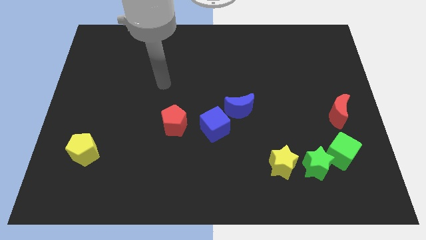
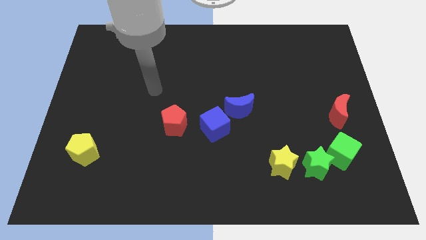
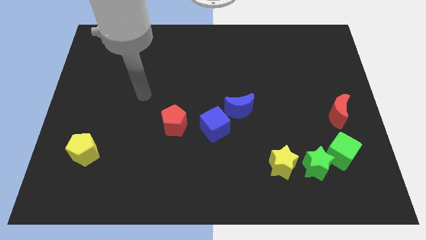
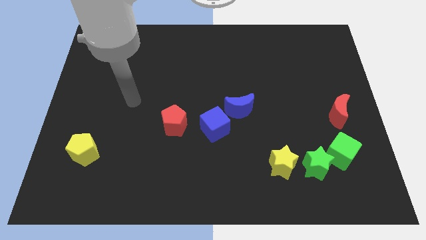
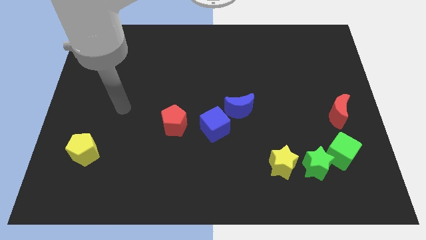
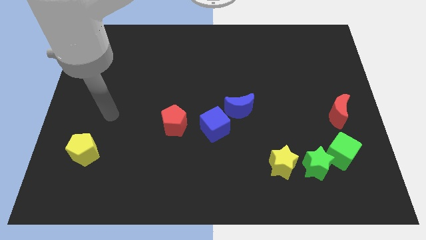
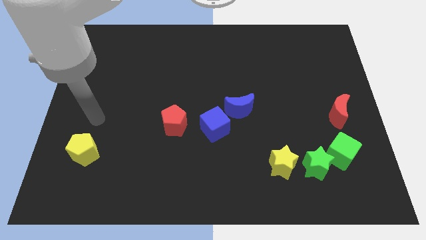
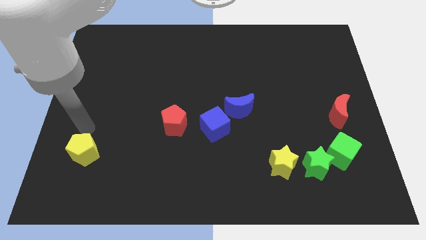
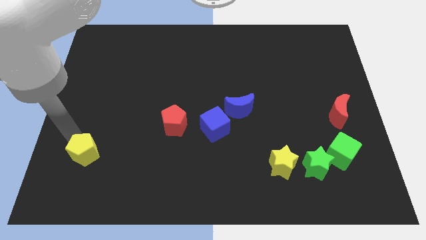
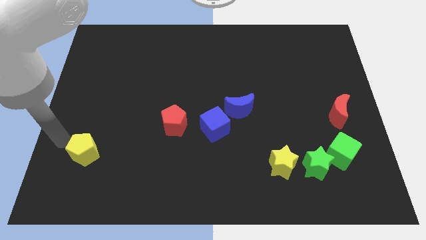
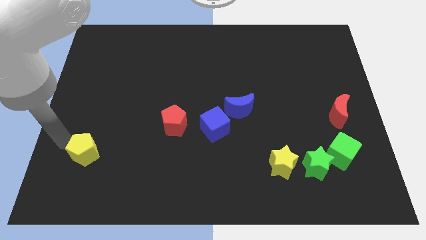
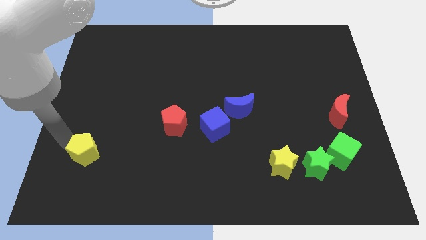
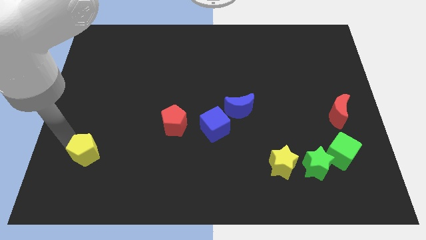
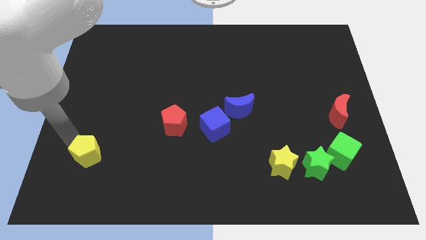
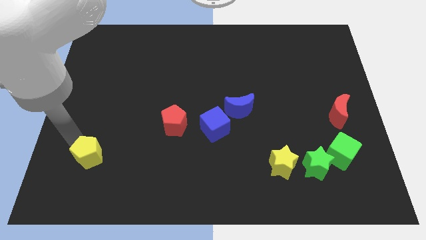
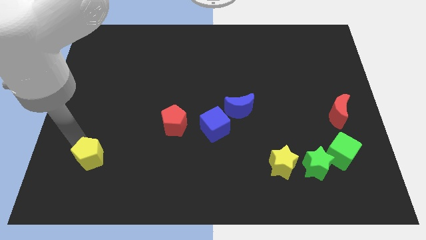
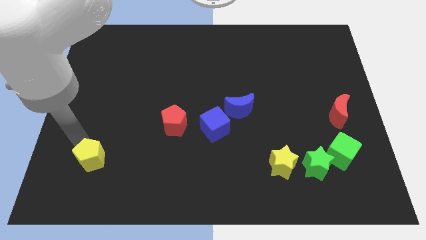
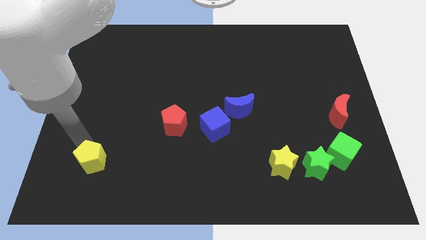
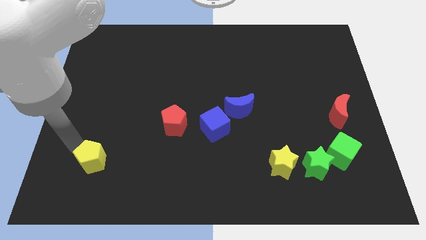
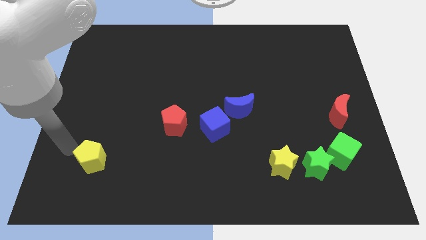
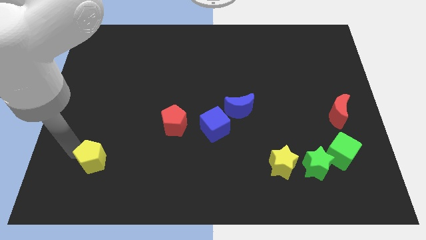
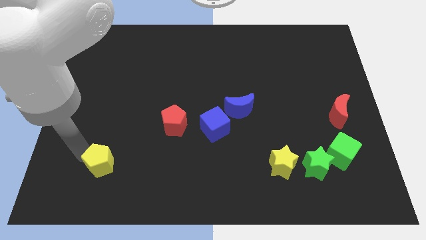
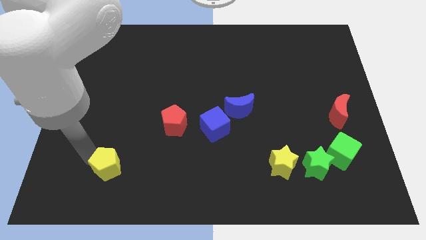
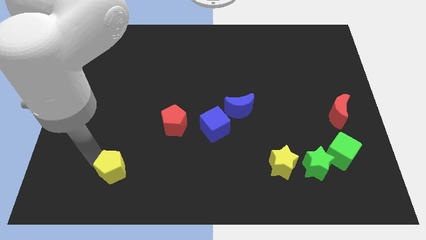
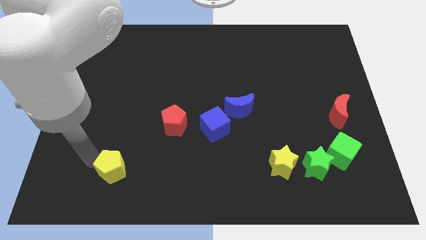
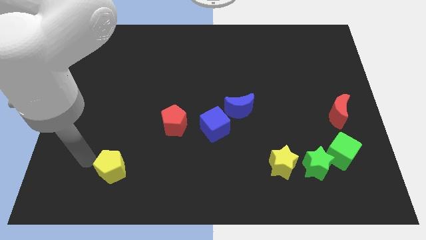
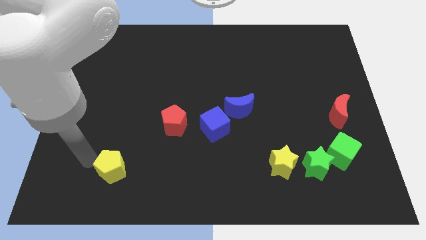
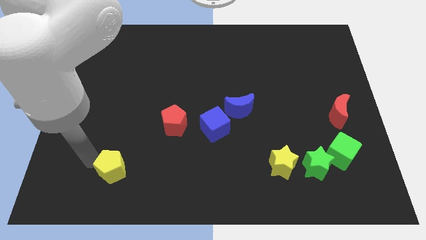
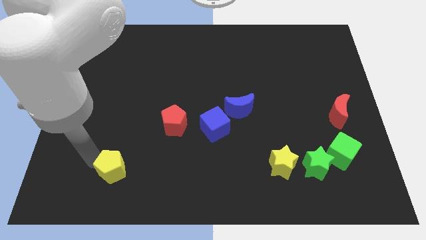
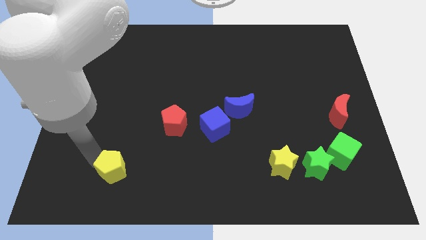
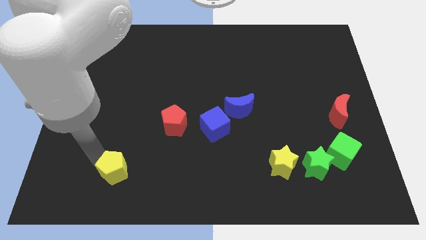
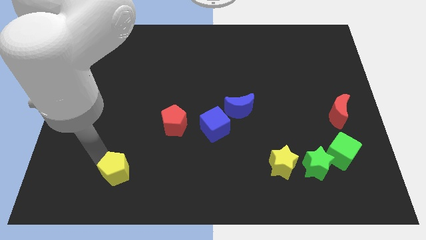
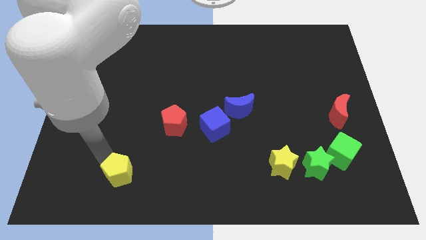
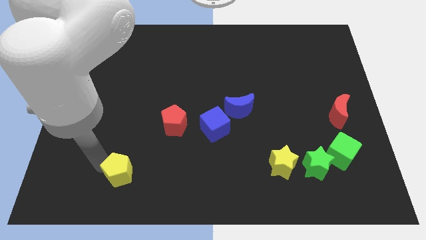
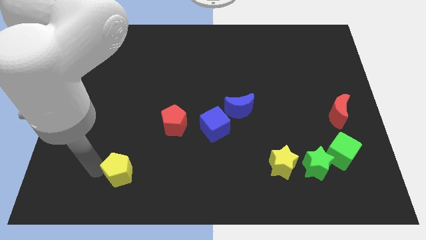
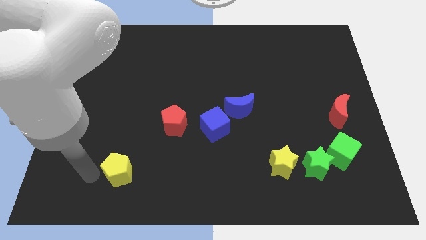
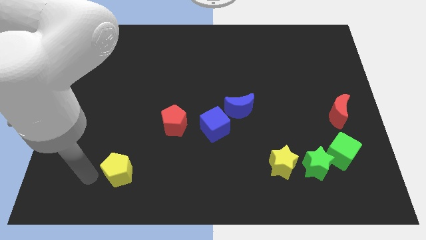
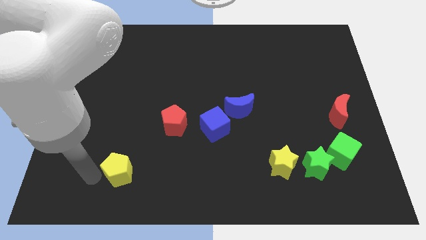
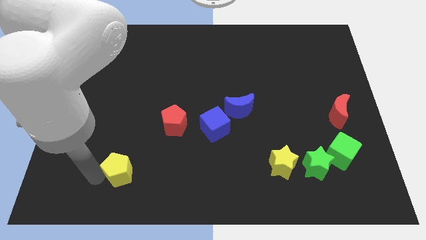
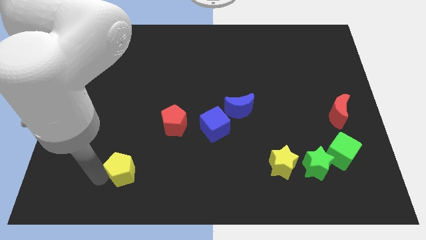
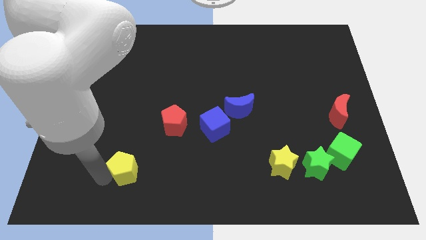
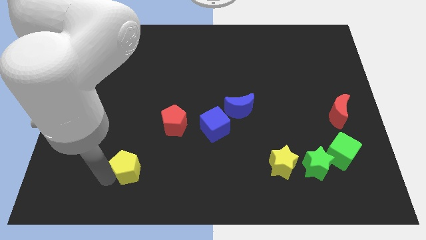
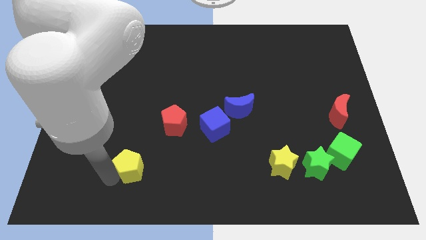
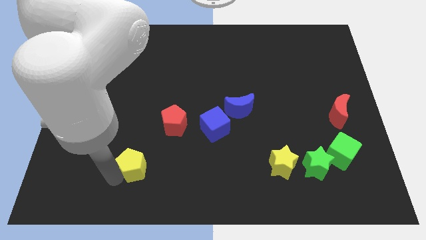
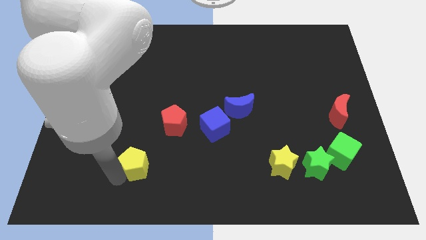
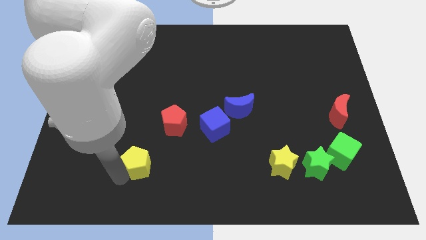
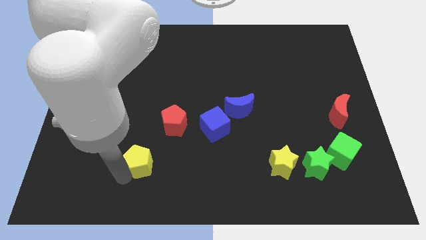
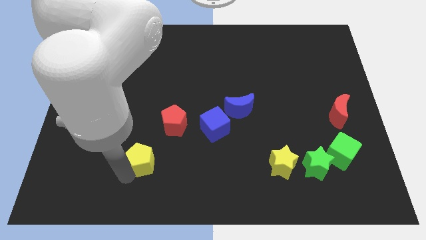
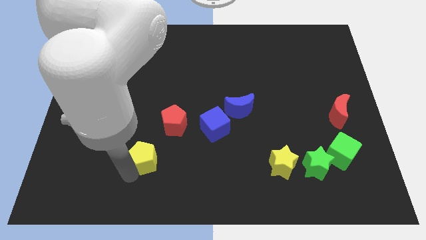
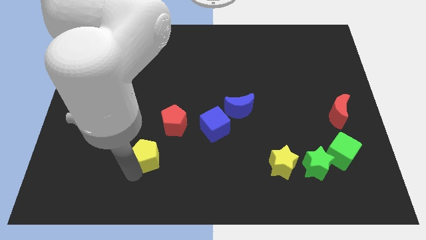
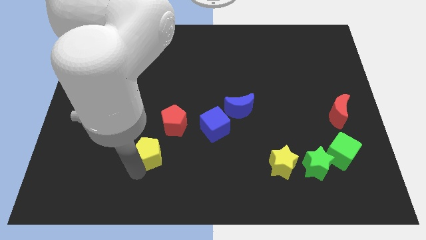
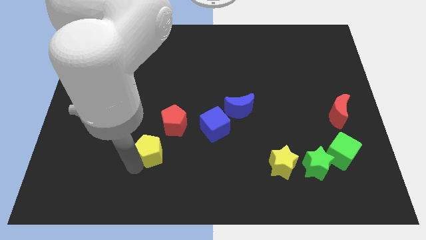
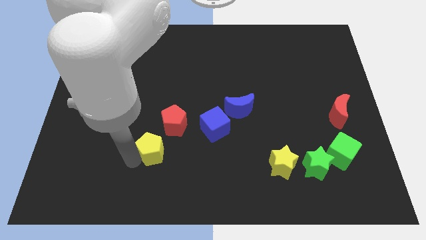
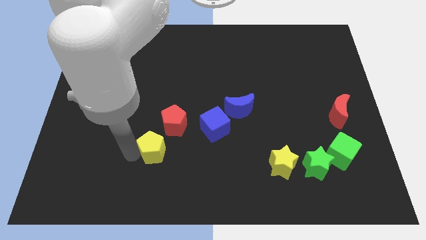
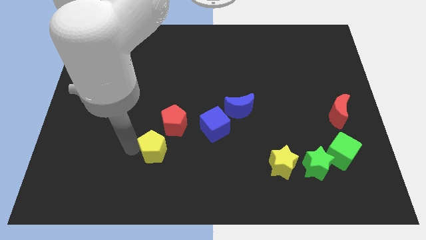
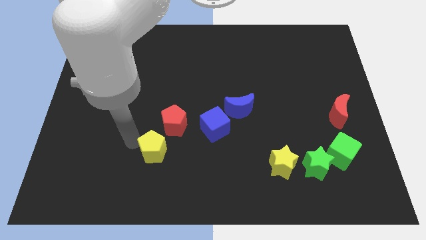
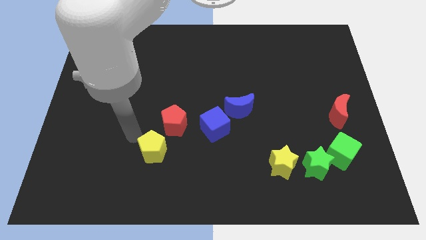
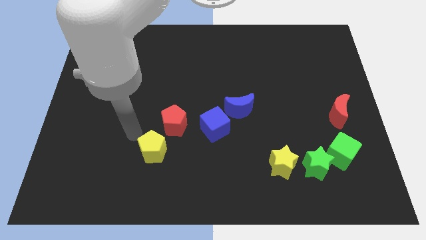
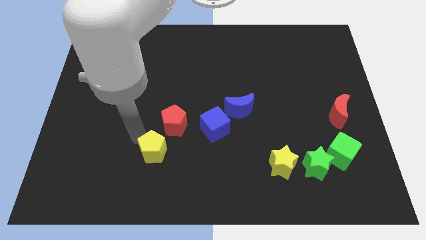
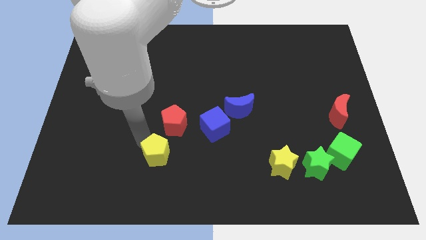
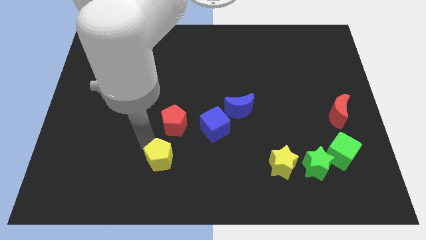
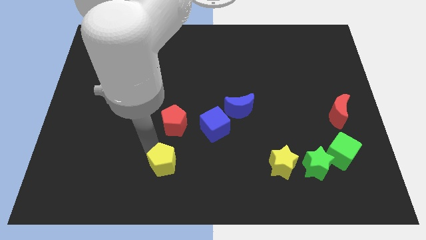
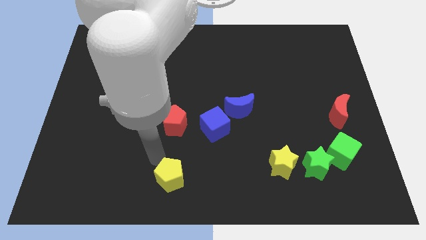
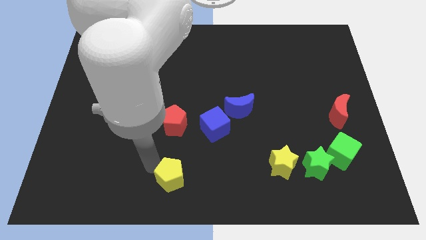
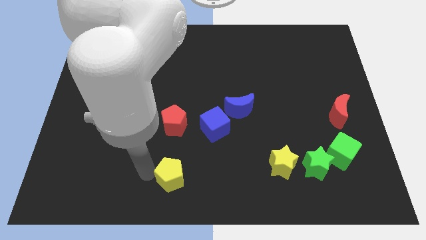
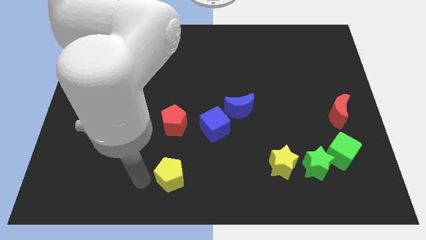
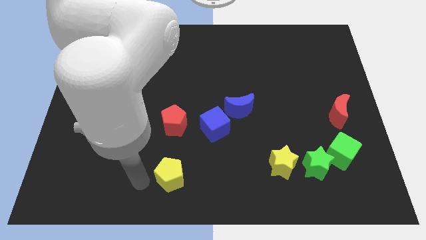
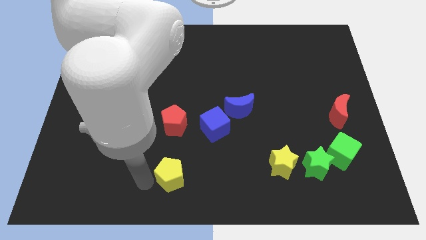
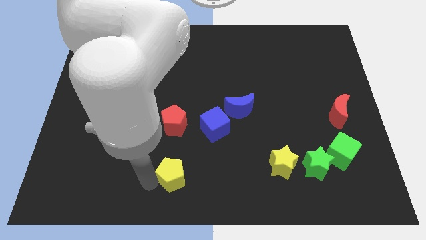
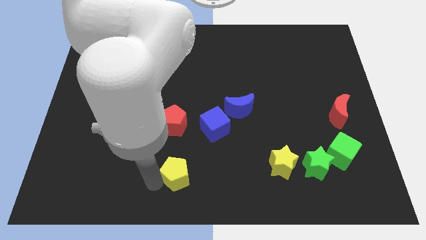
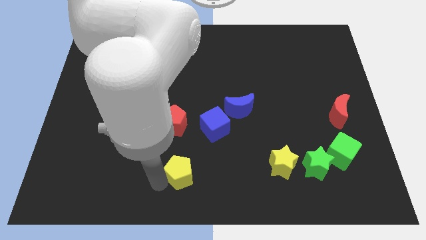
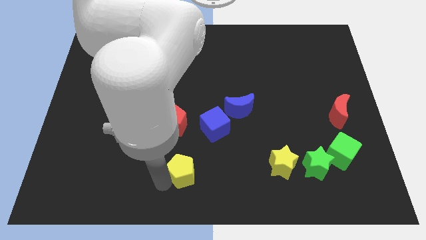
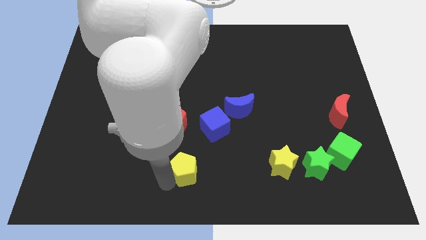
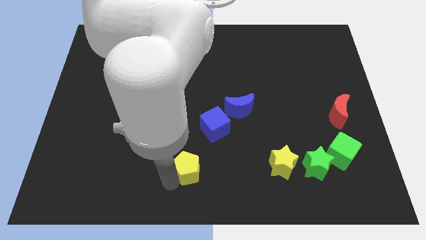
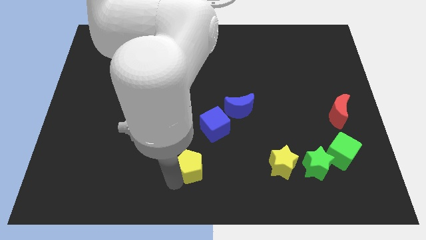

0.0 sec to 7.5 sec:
push the yellow pentagon below the blue cube
